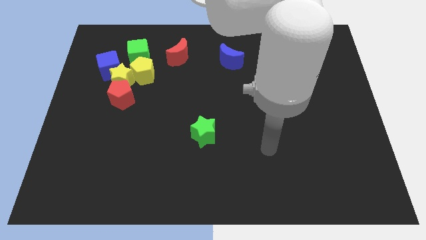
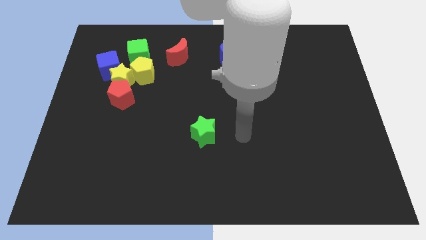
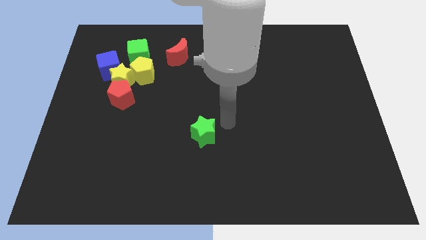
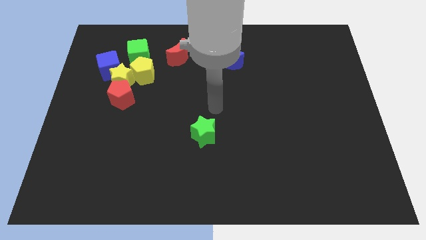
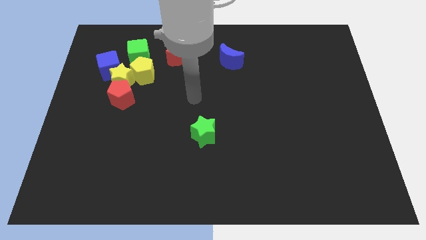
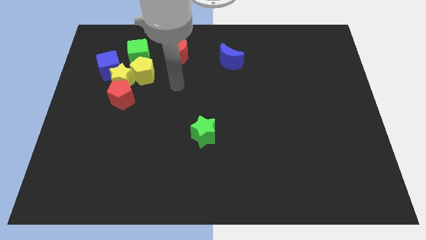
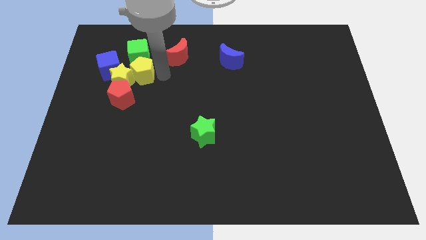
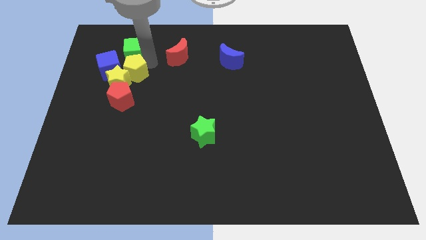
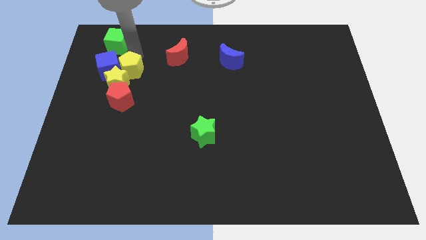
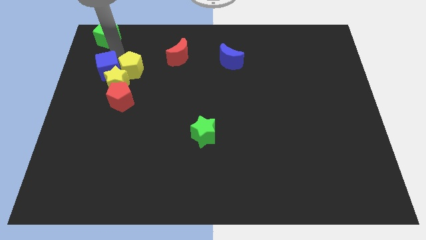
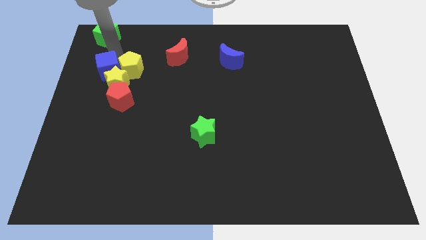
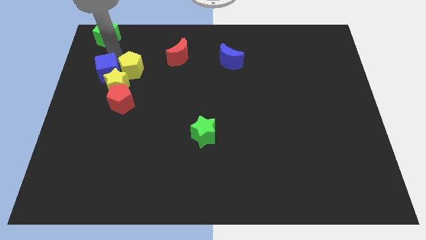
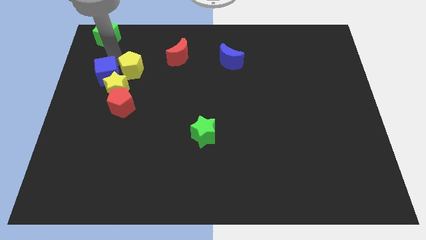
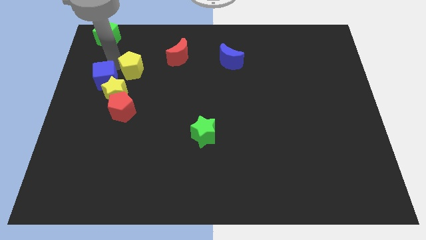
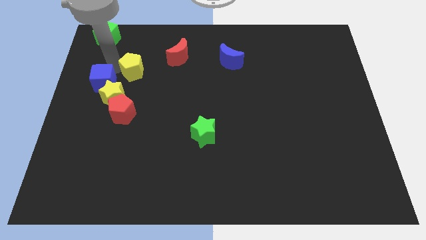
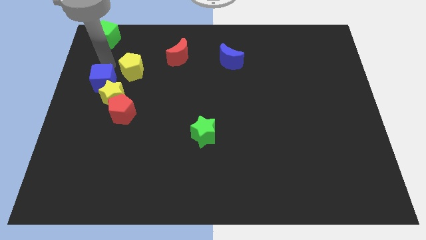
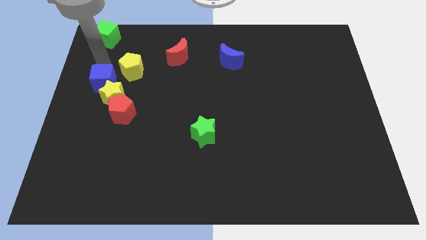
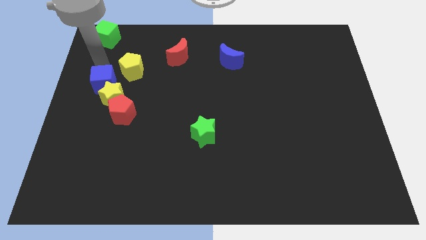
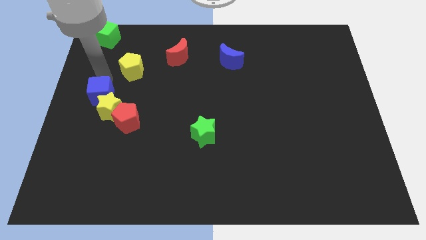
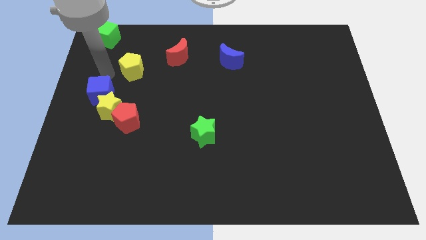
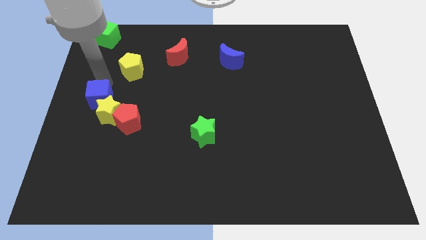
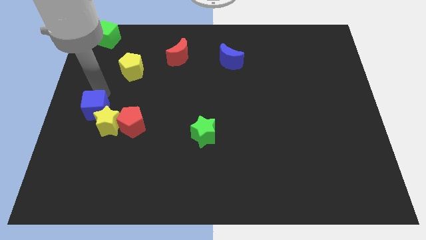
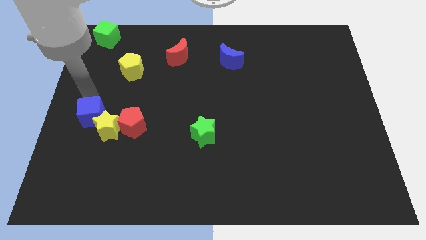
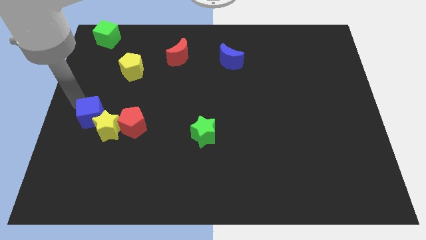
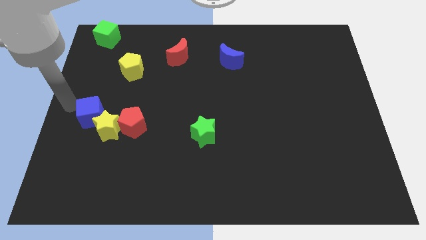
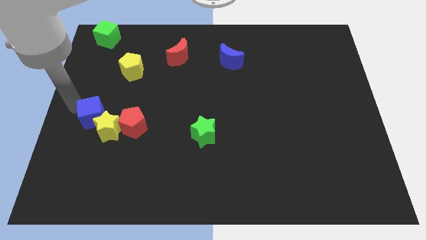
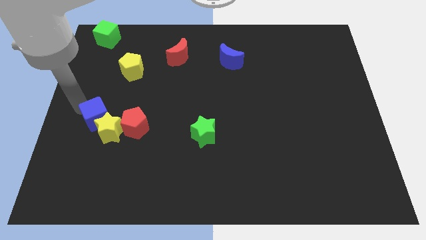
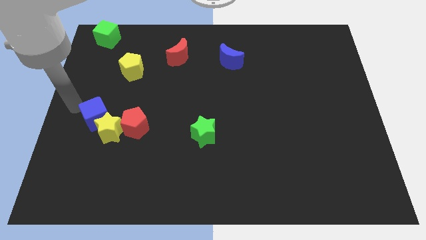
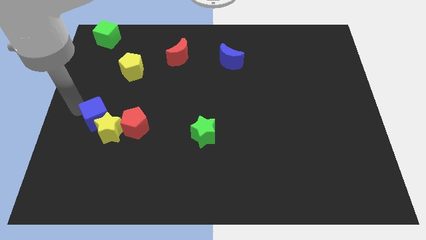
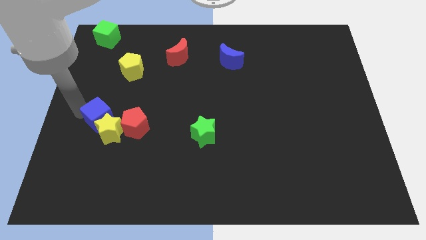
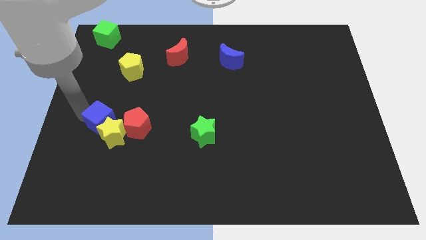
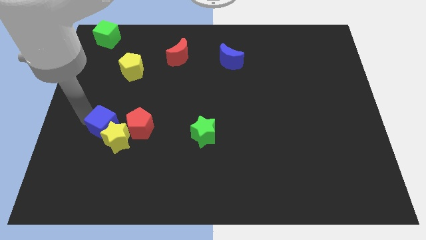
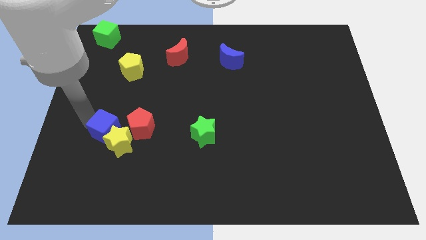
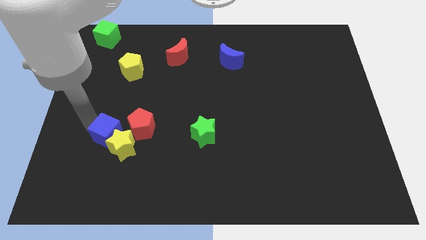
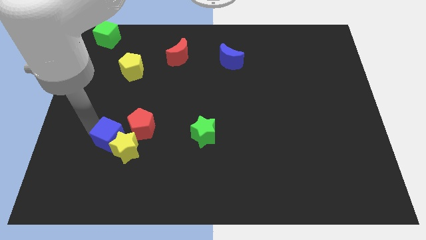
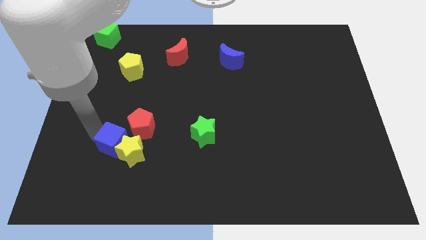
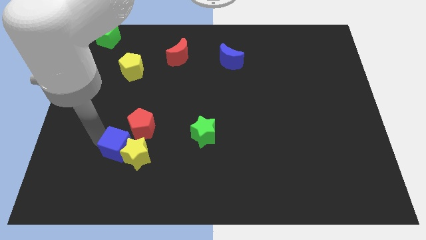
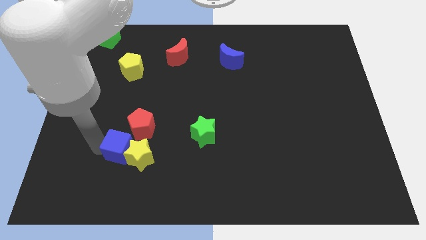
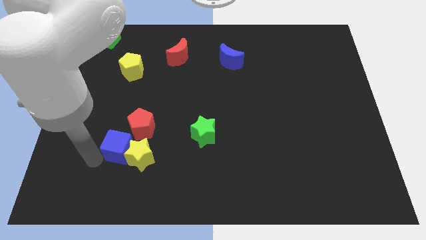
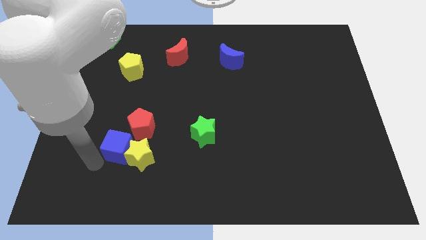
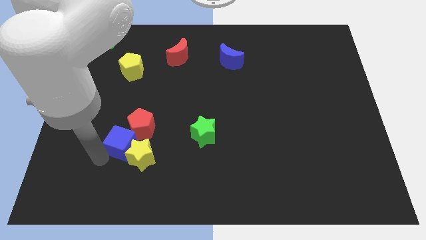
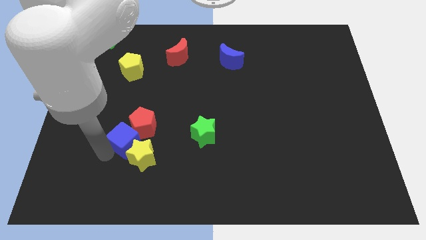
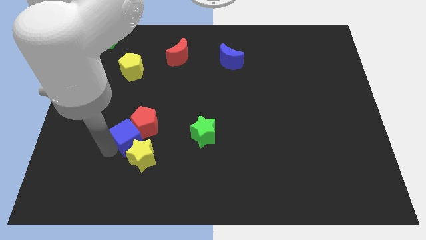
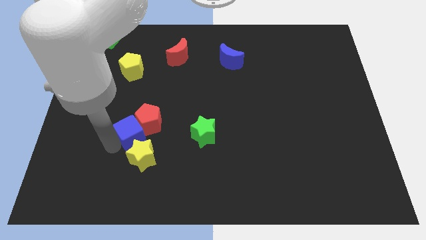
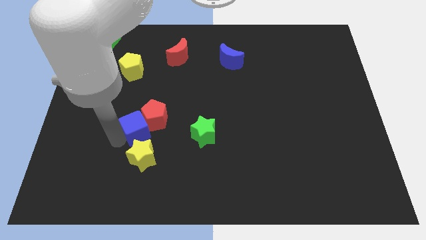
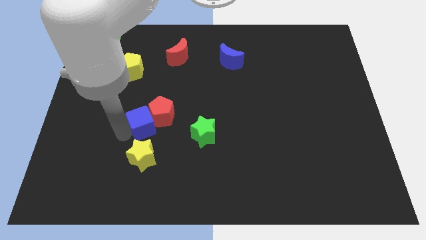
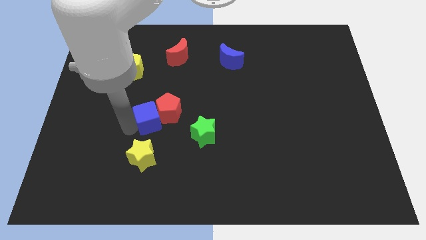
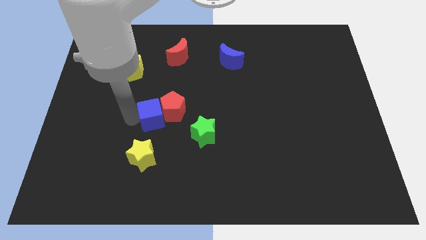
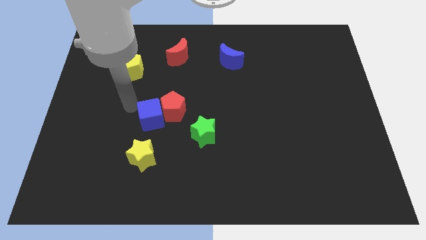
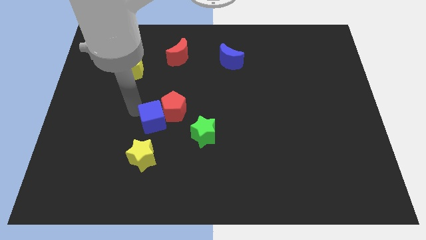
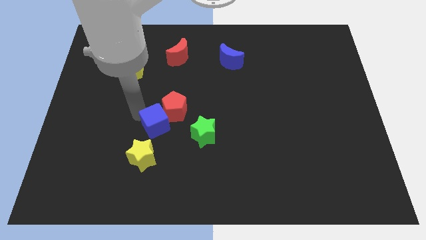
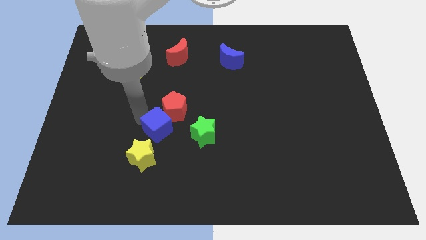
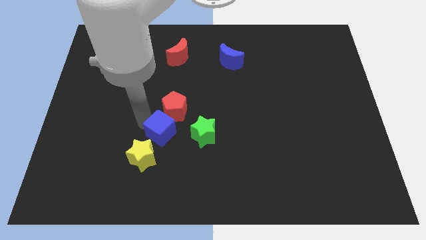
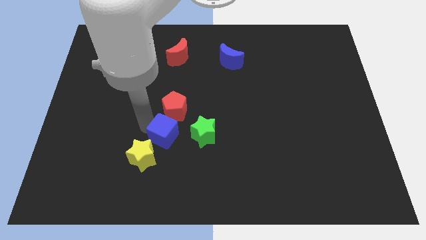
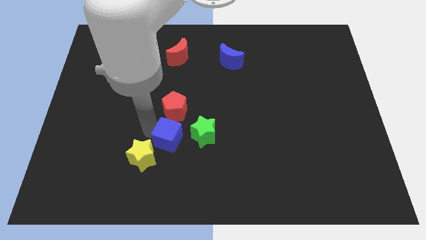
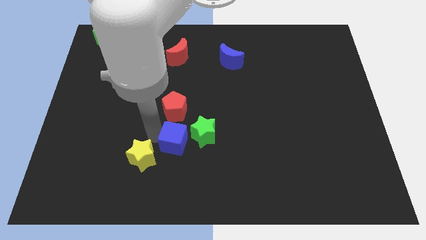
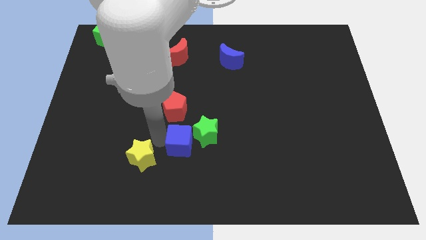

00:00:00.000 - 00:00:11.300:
slide the blue cube to the green star

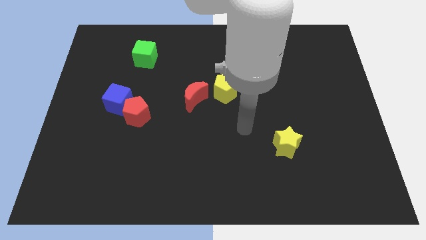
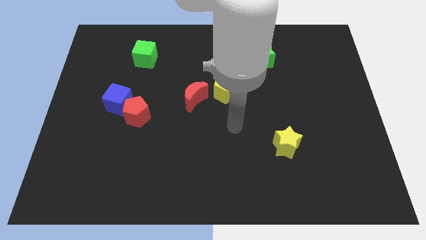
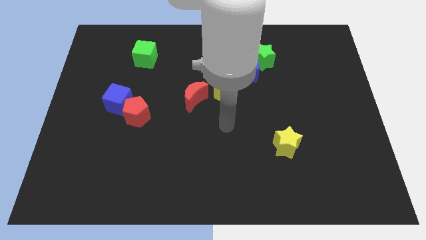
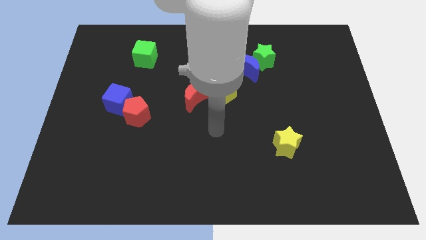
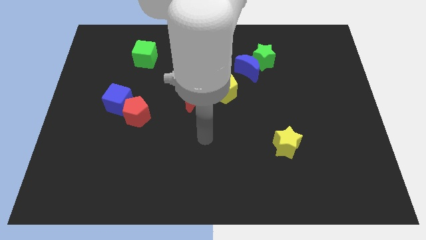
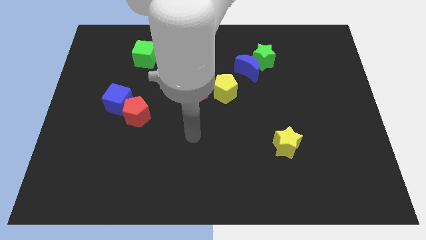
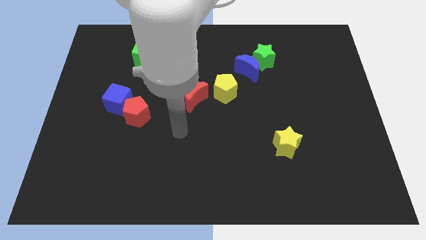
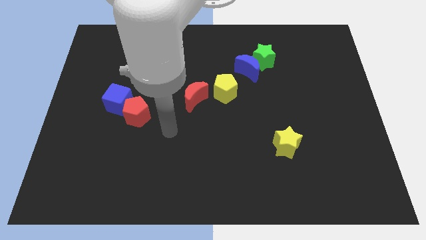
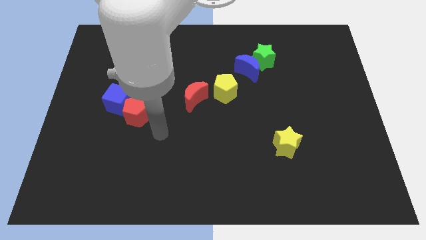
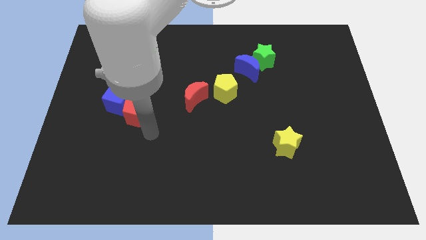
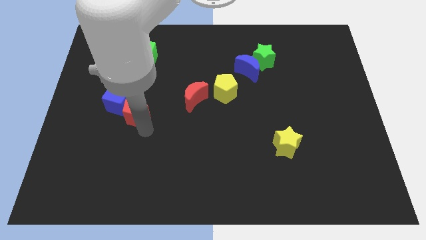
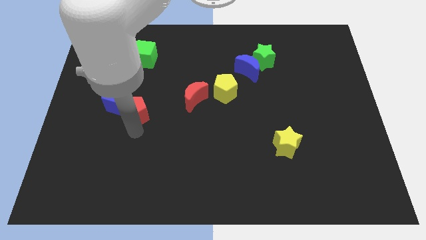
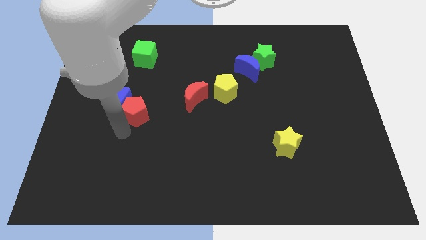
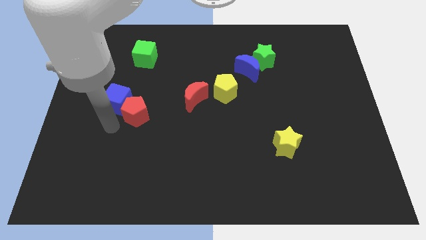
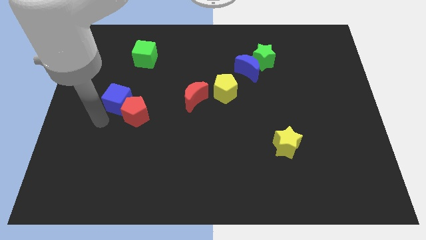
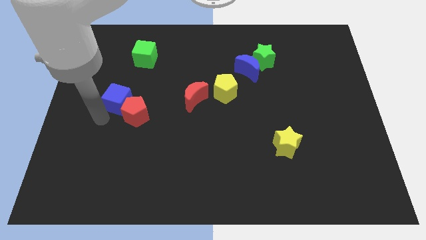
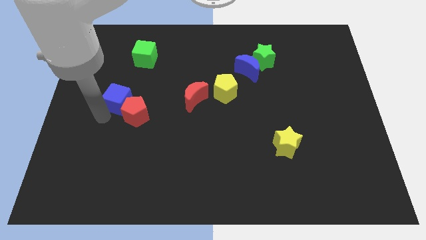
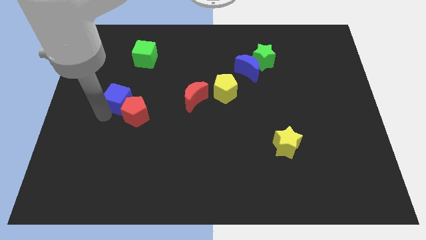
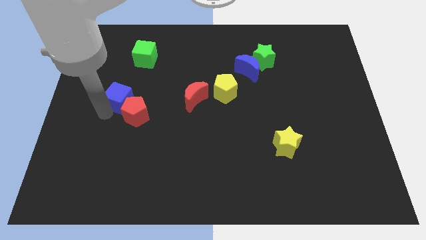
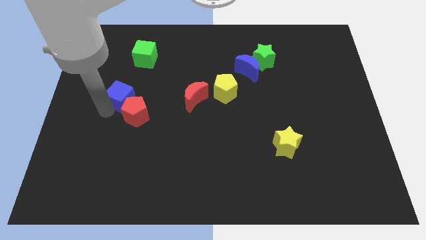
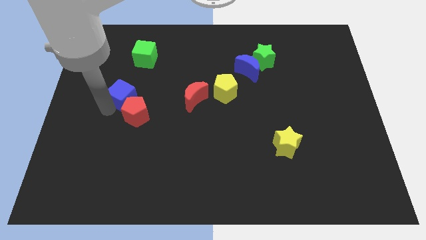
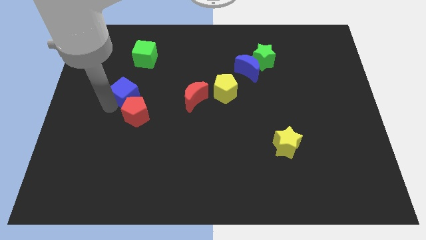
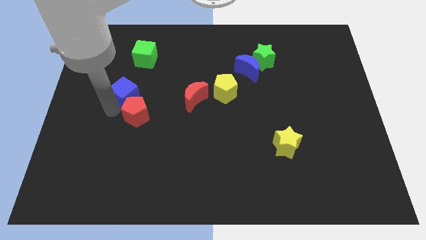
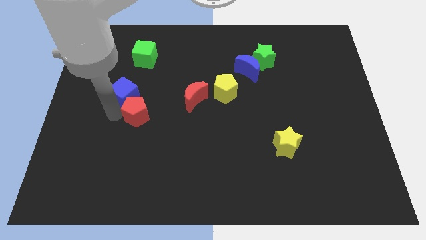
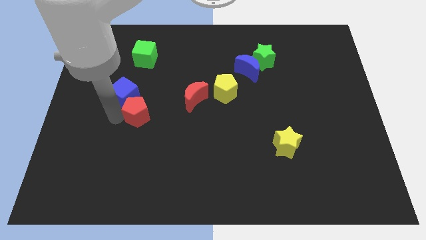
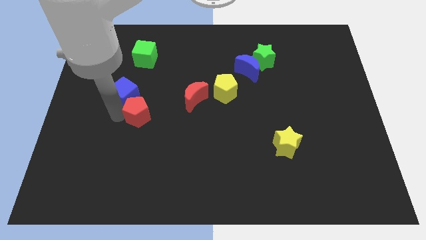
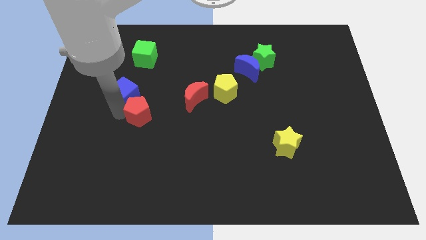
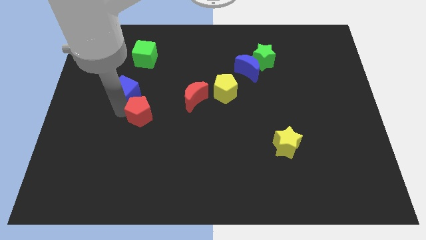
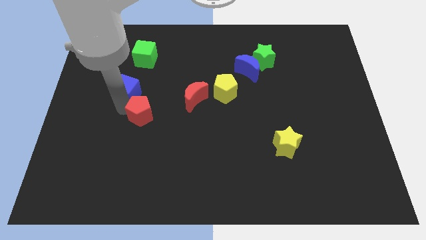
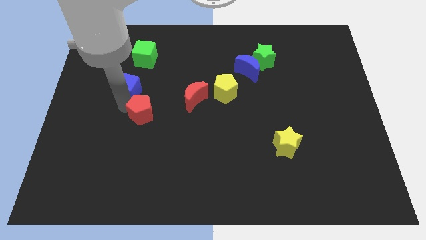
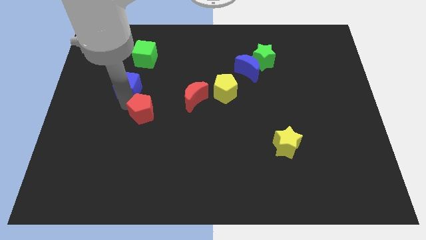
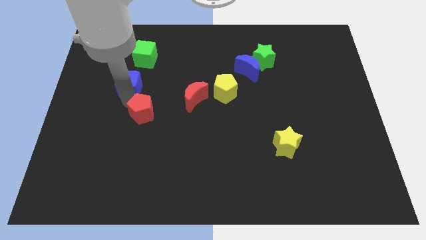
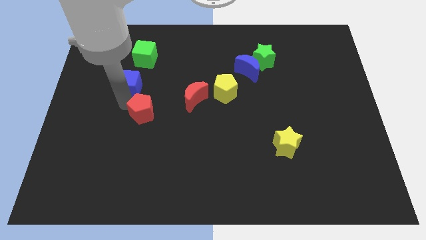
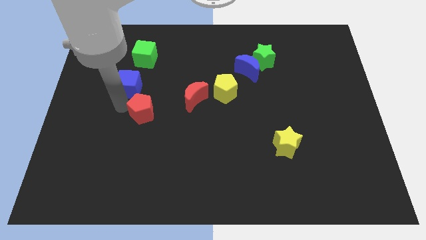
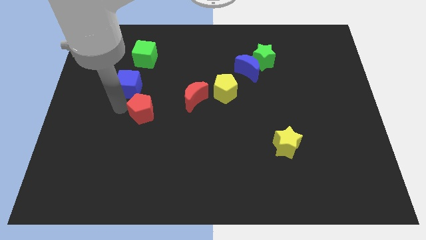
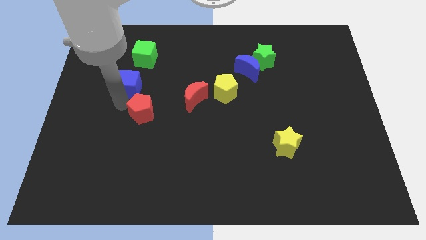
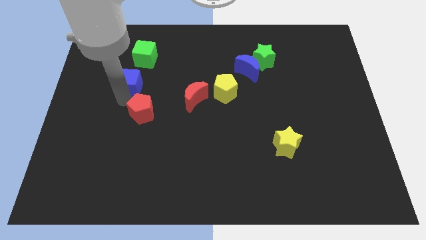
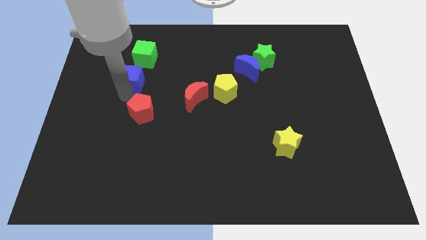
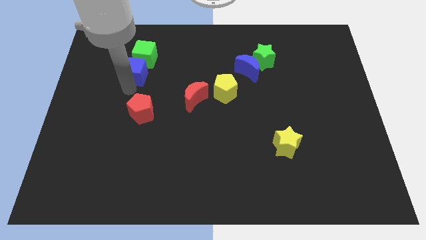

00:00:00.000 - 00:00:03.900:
put the blue cube towards the green cube
